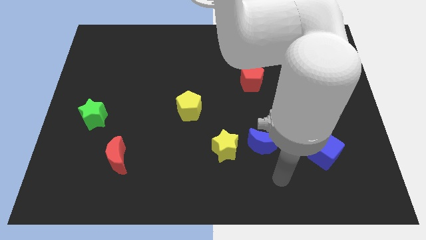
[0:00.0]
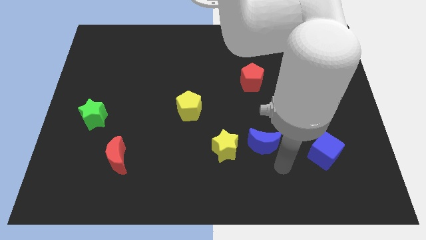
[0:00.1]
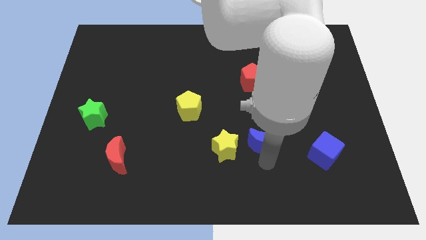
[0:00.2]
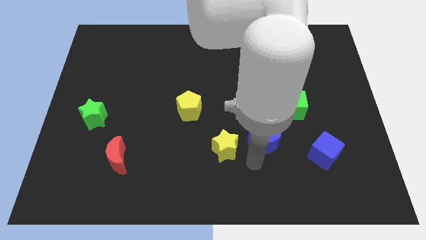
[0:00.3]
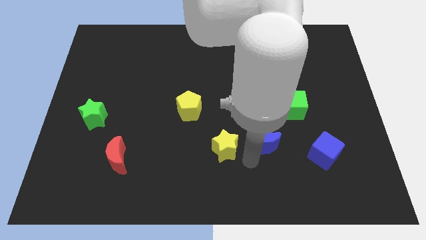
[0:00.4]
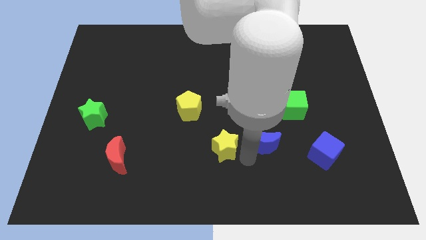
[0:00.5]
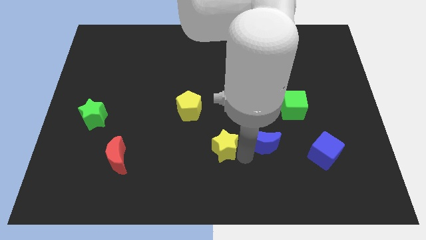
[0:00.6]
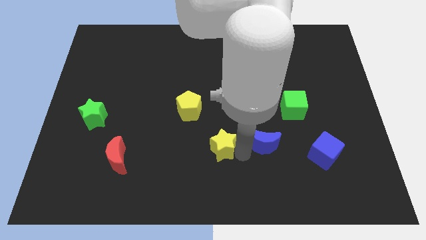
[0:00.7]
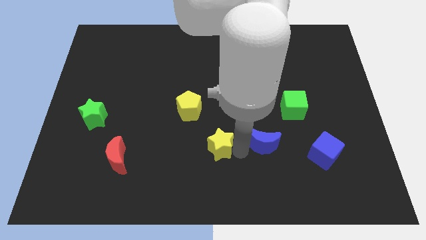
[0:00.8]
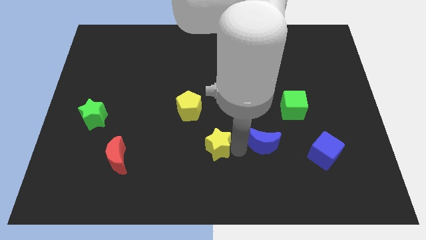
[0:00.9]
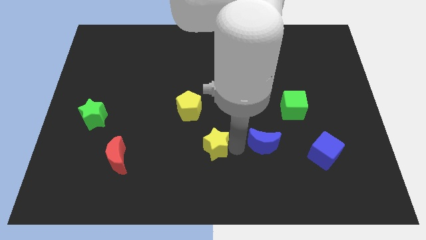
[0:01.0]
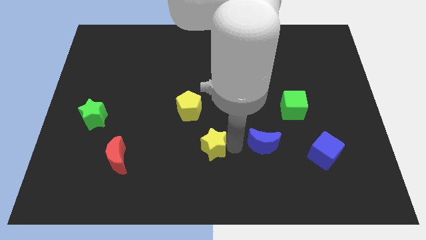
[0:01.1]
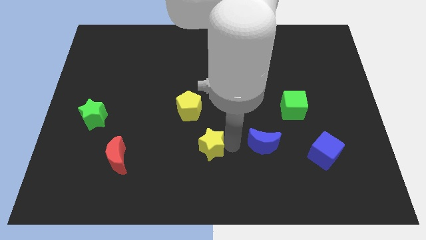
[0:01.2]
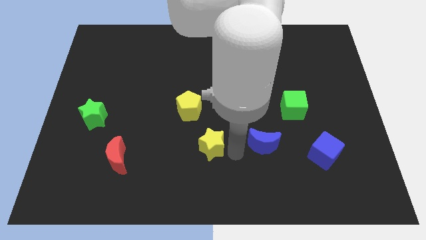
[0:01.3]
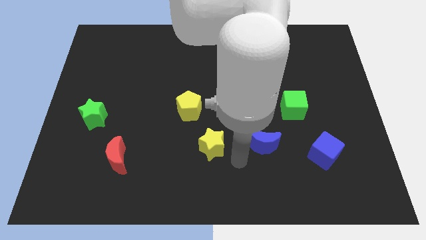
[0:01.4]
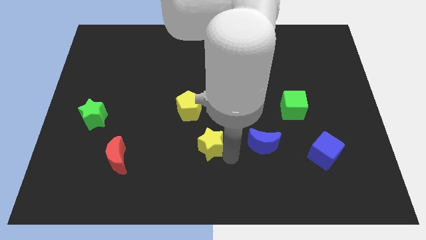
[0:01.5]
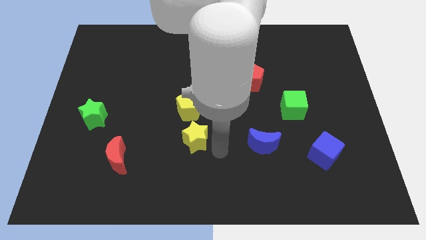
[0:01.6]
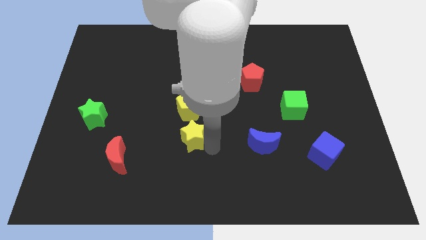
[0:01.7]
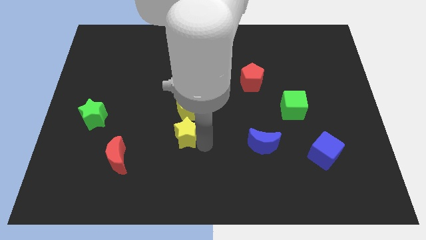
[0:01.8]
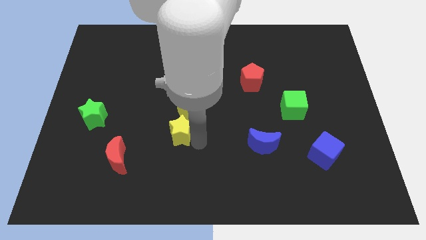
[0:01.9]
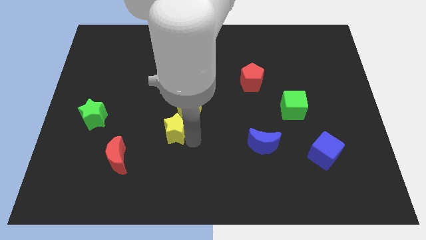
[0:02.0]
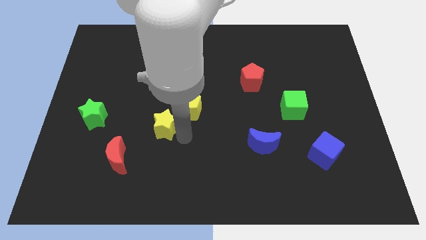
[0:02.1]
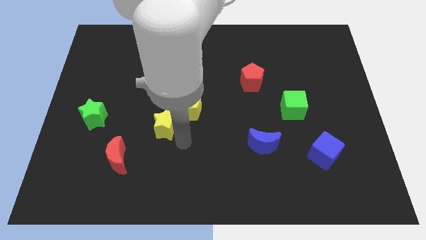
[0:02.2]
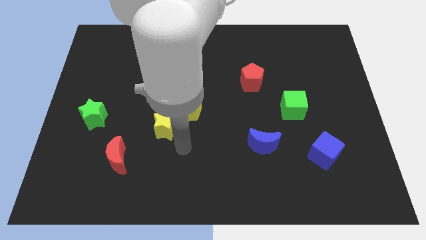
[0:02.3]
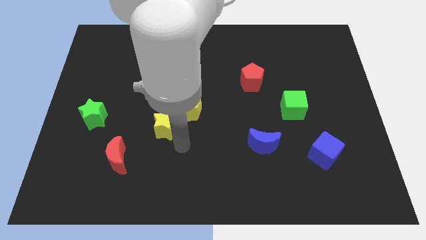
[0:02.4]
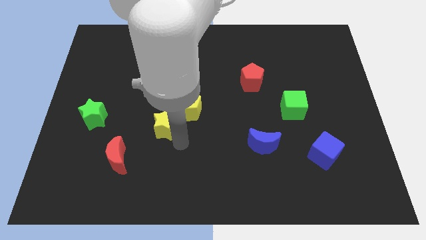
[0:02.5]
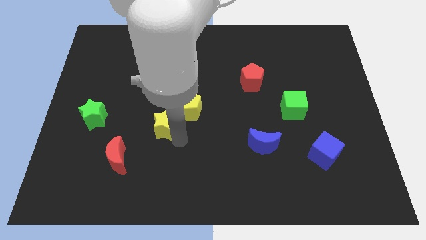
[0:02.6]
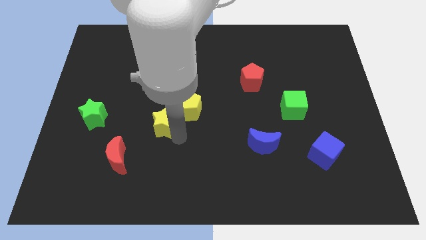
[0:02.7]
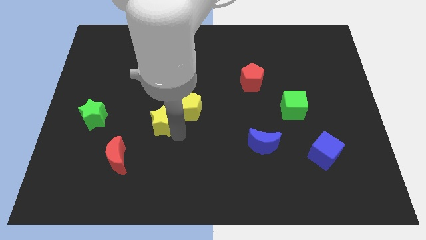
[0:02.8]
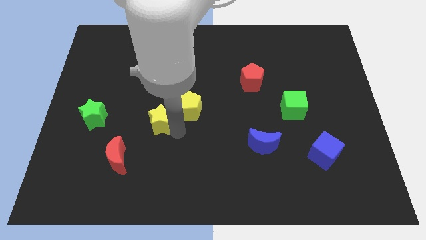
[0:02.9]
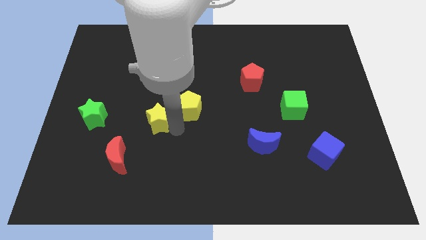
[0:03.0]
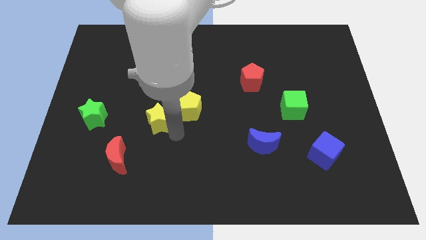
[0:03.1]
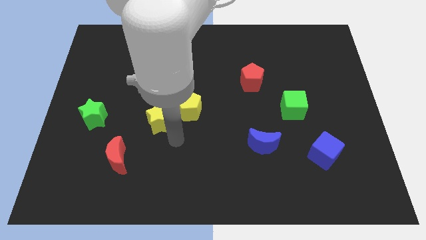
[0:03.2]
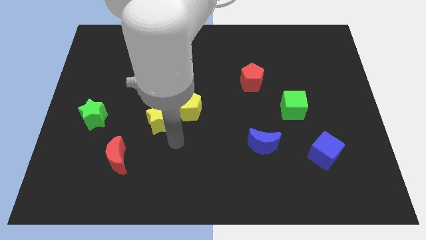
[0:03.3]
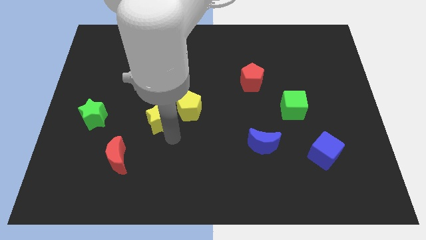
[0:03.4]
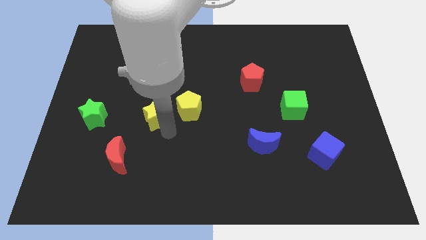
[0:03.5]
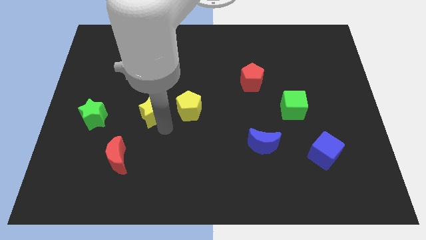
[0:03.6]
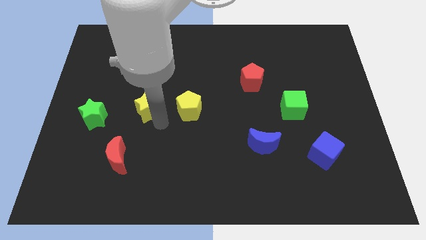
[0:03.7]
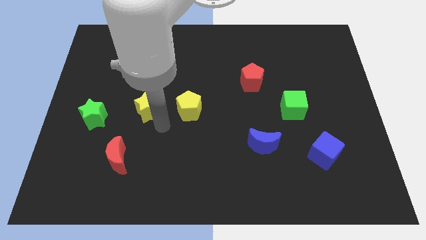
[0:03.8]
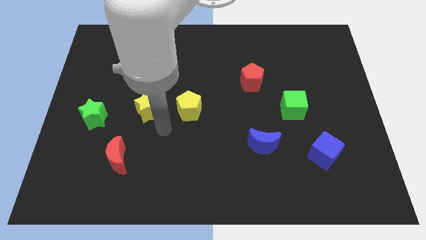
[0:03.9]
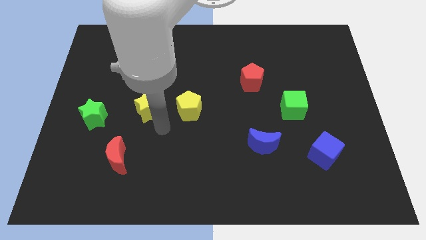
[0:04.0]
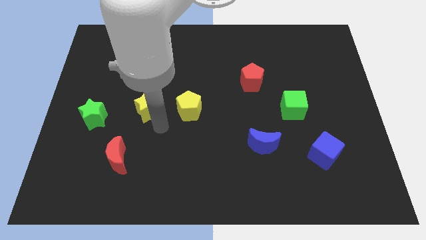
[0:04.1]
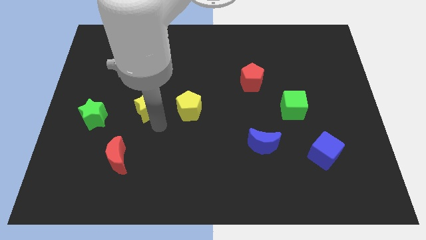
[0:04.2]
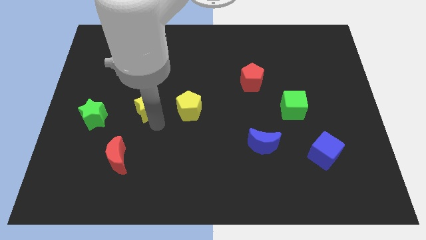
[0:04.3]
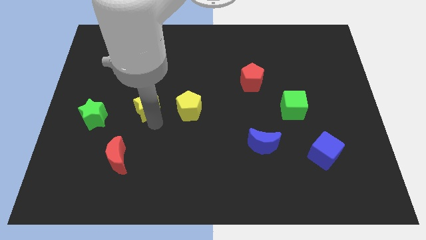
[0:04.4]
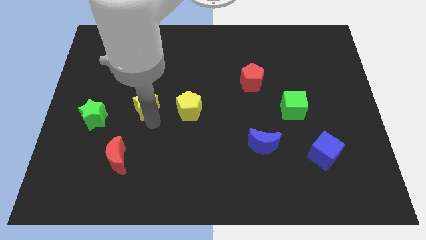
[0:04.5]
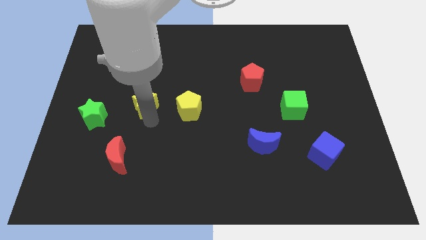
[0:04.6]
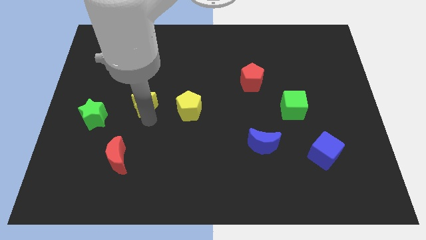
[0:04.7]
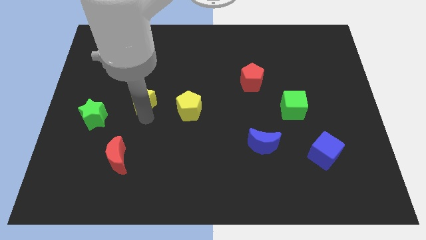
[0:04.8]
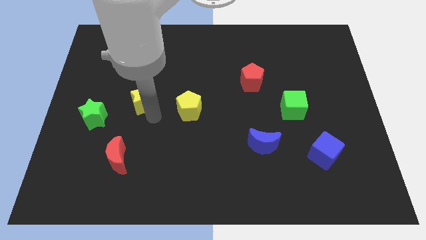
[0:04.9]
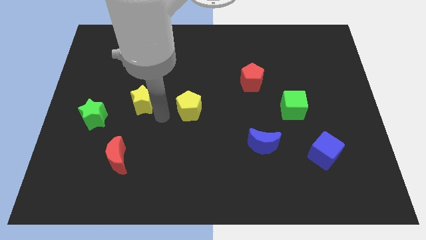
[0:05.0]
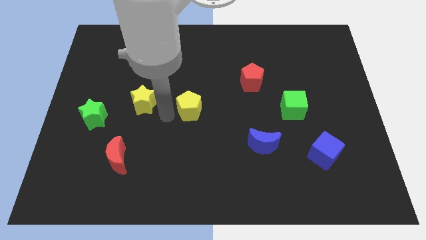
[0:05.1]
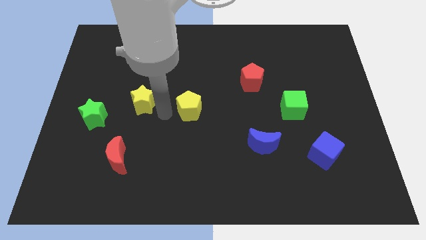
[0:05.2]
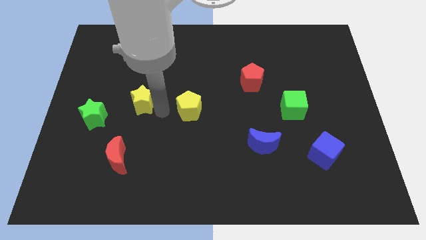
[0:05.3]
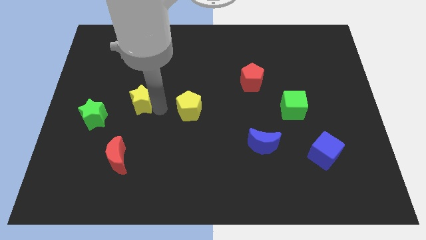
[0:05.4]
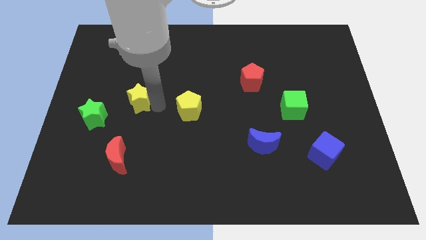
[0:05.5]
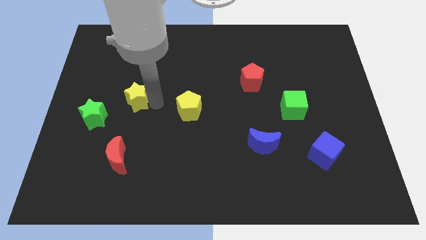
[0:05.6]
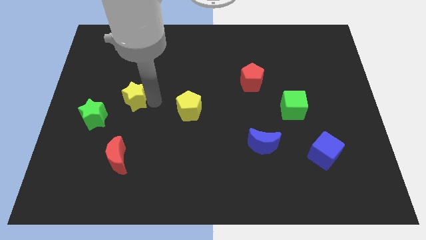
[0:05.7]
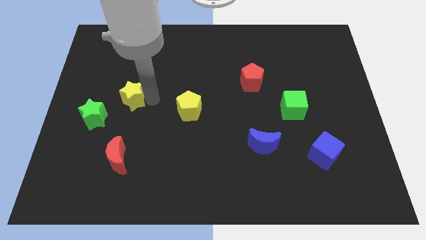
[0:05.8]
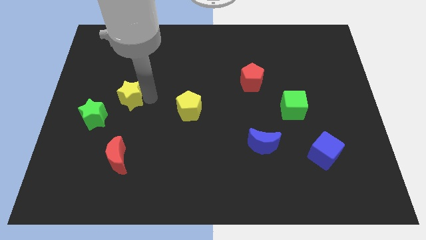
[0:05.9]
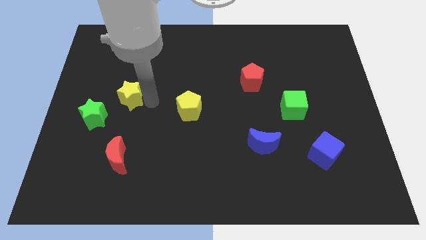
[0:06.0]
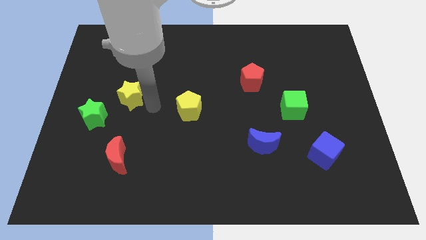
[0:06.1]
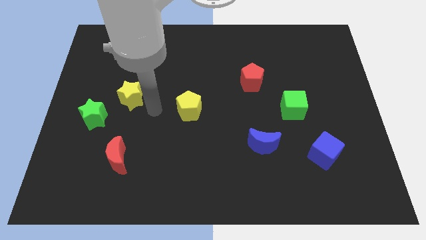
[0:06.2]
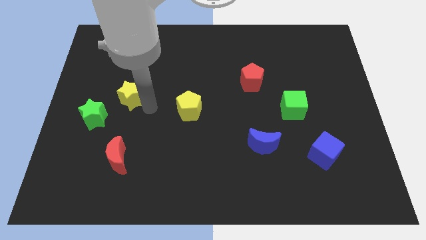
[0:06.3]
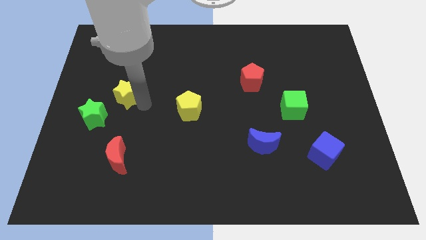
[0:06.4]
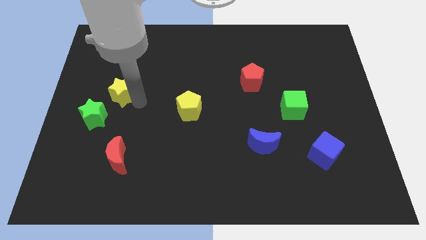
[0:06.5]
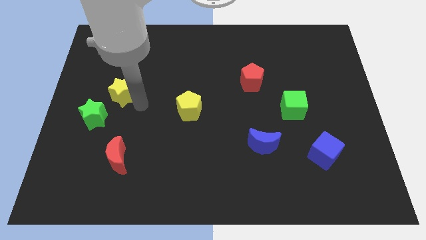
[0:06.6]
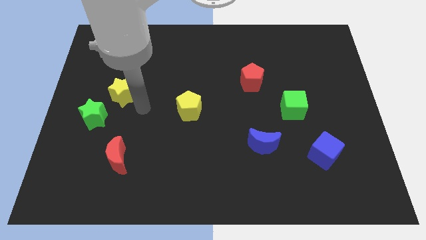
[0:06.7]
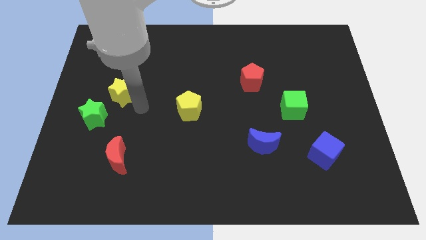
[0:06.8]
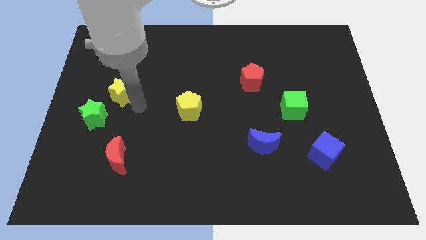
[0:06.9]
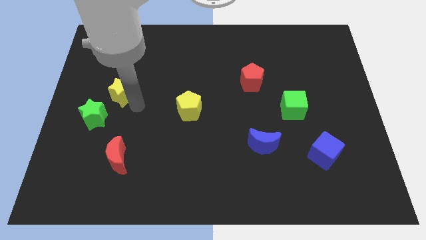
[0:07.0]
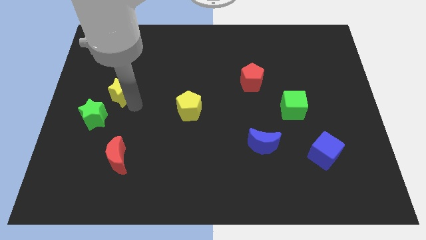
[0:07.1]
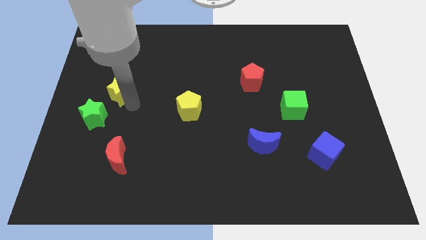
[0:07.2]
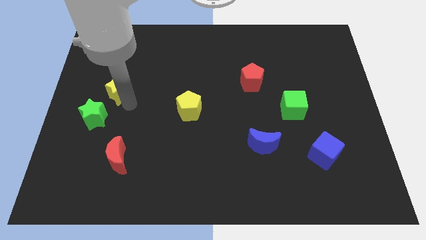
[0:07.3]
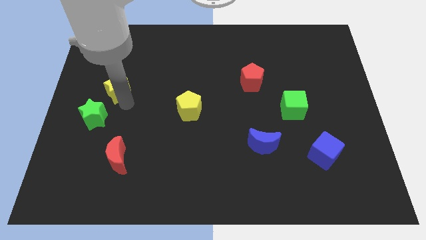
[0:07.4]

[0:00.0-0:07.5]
move the yellow star to the top of the green star
